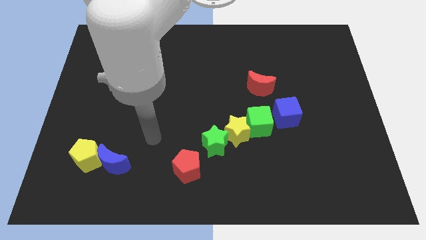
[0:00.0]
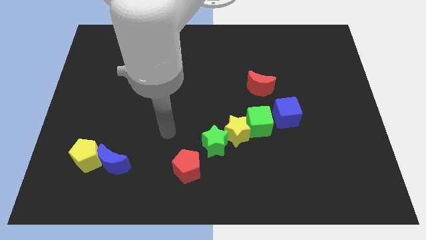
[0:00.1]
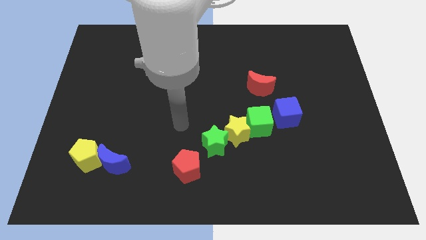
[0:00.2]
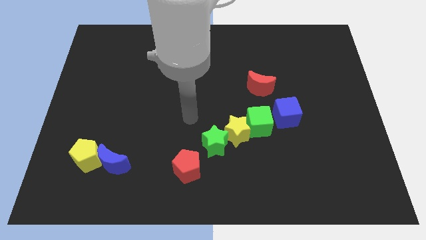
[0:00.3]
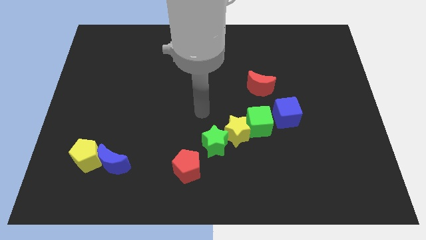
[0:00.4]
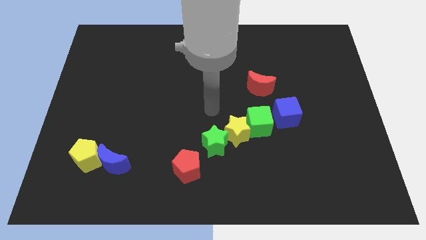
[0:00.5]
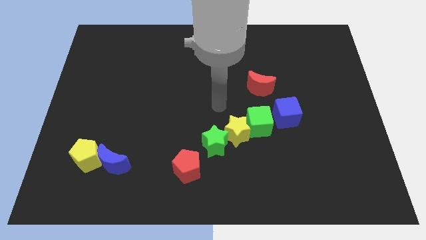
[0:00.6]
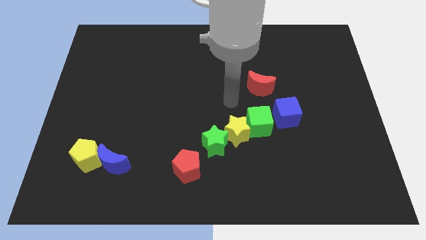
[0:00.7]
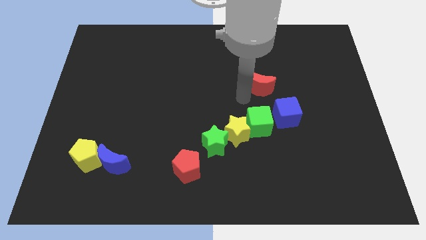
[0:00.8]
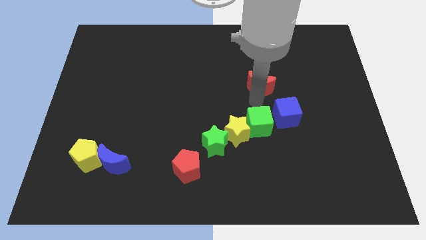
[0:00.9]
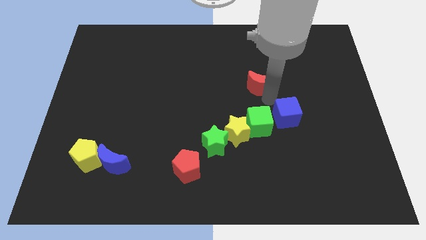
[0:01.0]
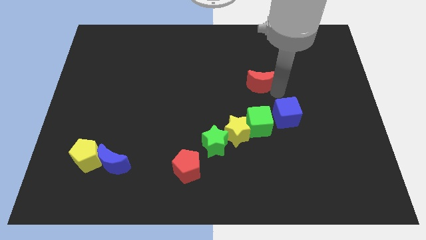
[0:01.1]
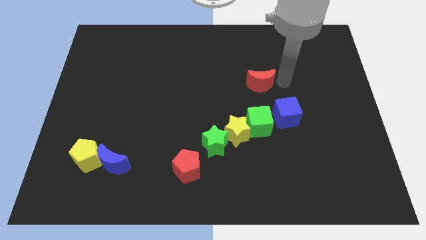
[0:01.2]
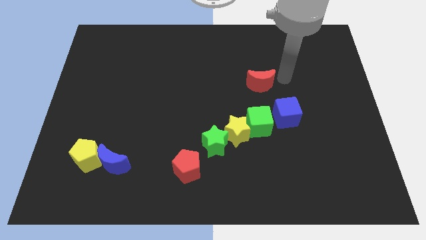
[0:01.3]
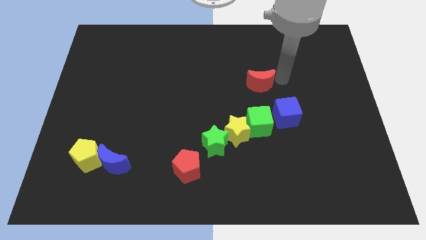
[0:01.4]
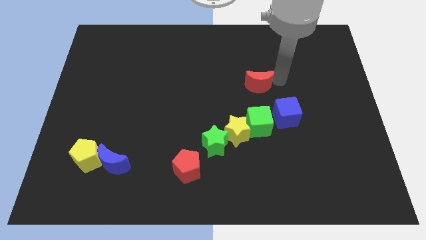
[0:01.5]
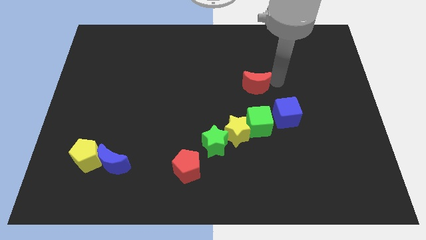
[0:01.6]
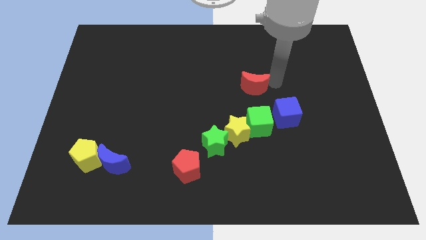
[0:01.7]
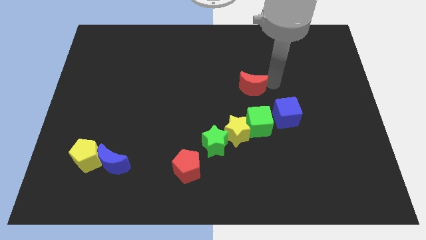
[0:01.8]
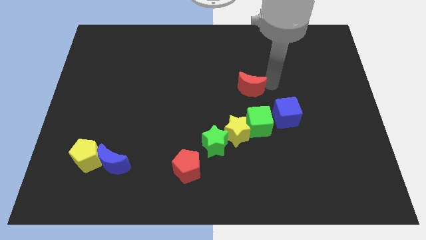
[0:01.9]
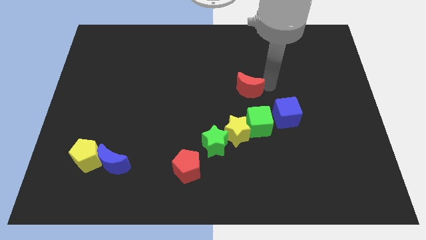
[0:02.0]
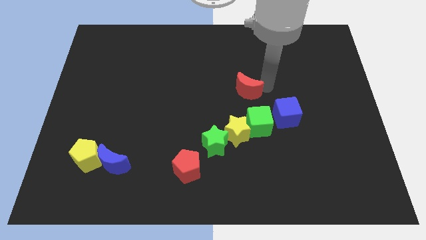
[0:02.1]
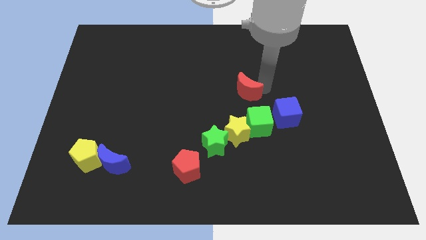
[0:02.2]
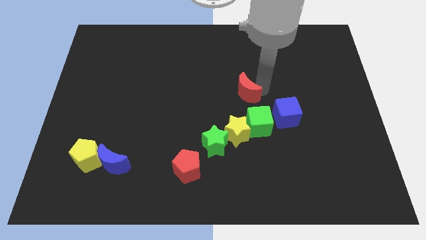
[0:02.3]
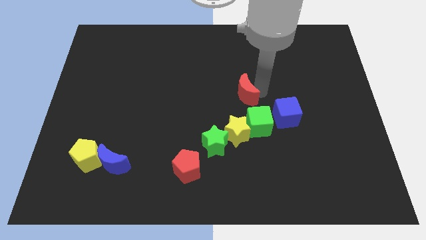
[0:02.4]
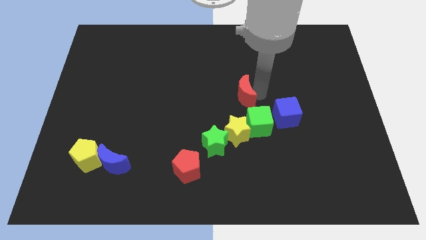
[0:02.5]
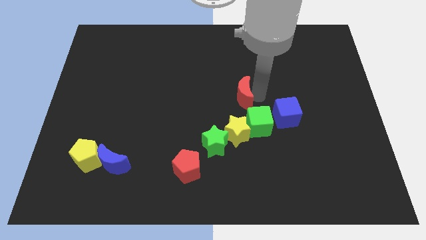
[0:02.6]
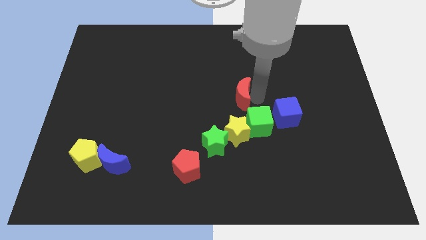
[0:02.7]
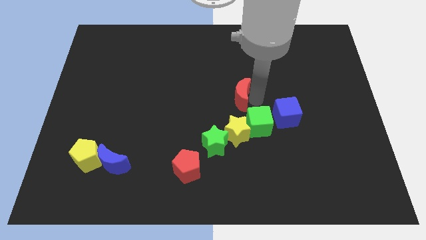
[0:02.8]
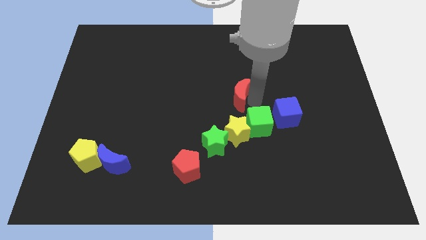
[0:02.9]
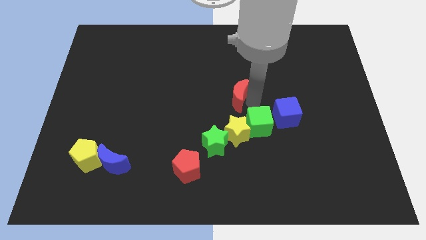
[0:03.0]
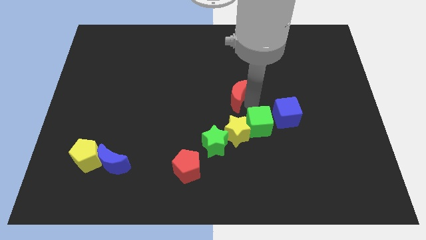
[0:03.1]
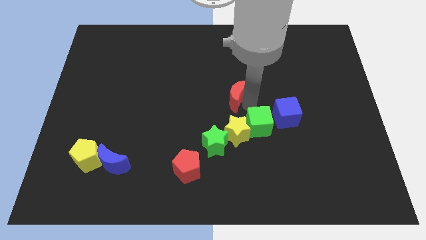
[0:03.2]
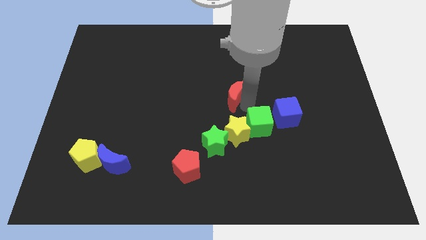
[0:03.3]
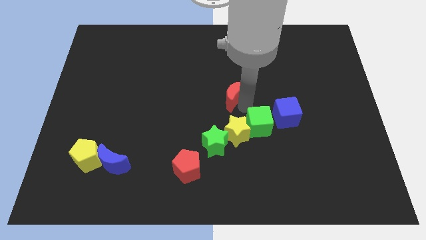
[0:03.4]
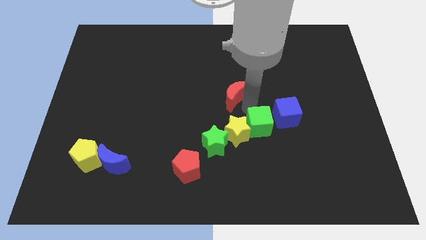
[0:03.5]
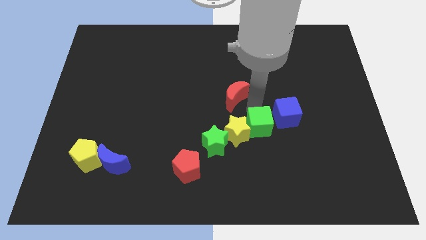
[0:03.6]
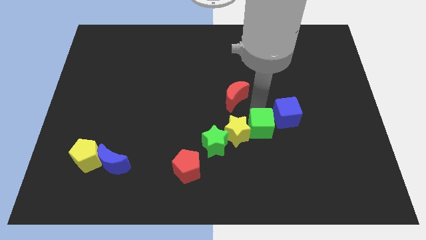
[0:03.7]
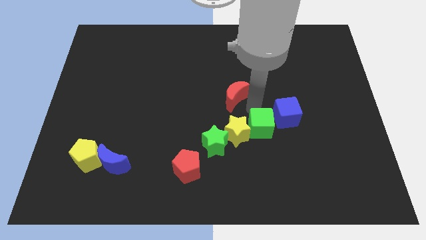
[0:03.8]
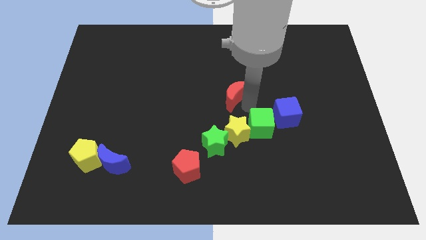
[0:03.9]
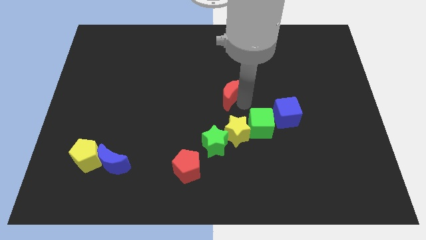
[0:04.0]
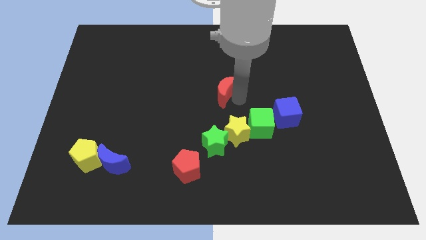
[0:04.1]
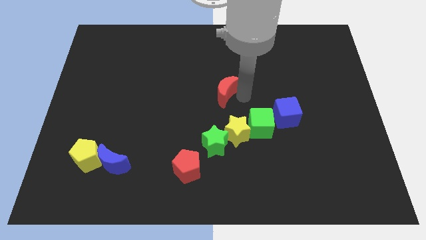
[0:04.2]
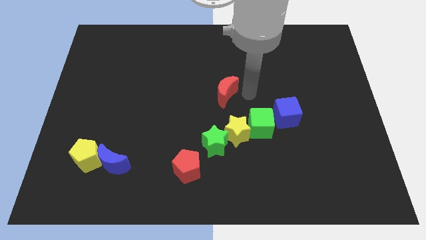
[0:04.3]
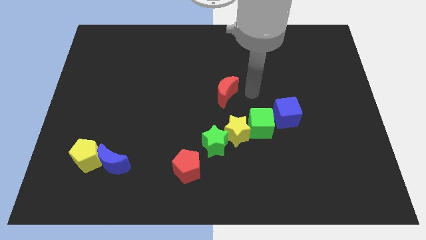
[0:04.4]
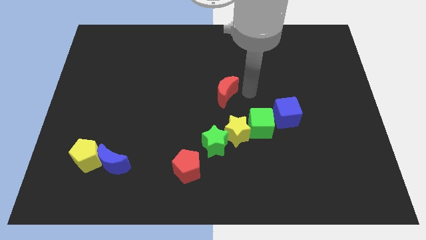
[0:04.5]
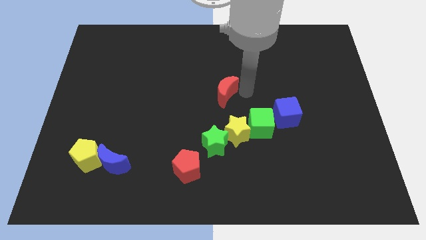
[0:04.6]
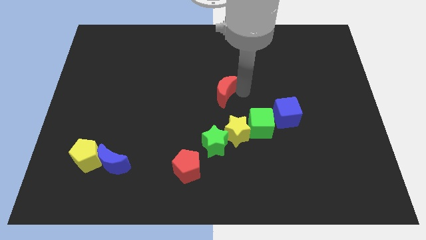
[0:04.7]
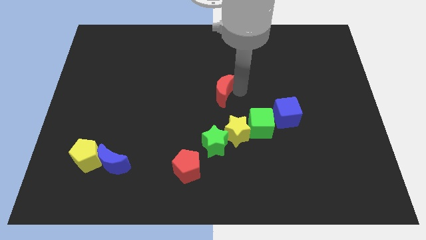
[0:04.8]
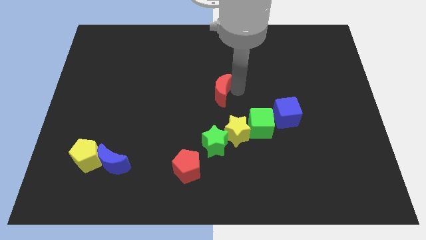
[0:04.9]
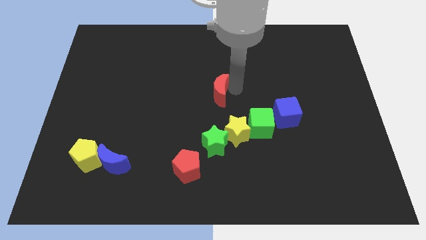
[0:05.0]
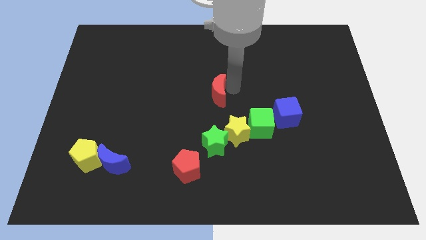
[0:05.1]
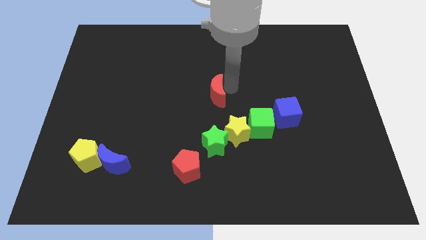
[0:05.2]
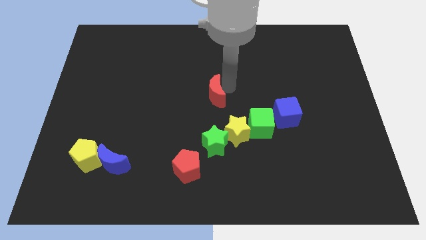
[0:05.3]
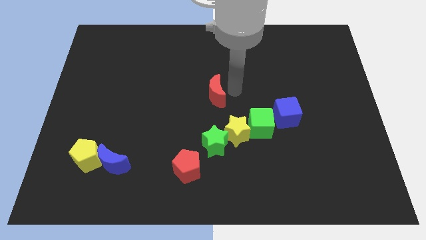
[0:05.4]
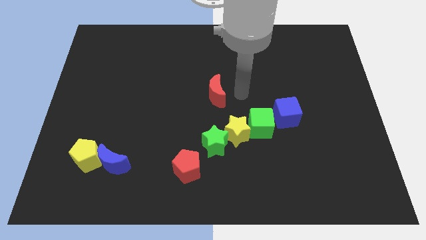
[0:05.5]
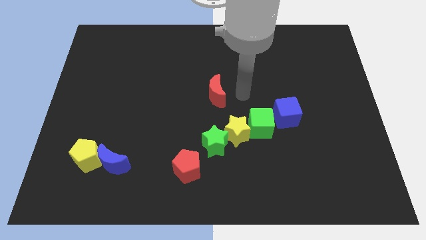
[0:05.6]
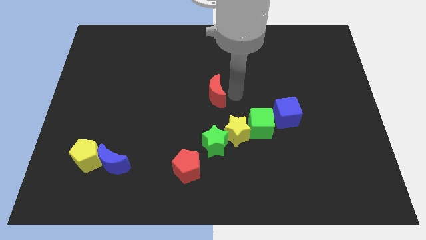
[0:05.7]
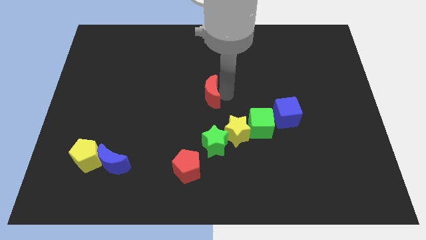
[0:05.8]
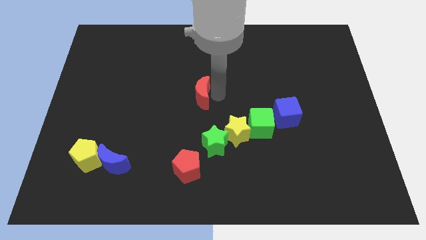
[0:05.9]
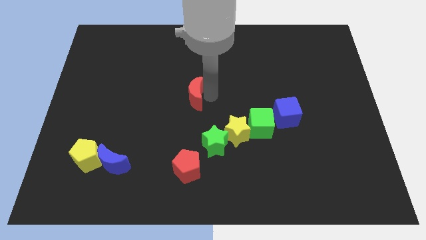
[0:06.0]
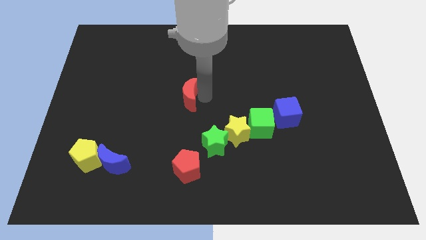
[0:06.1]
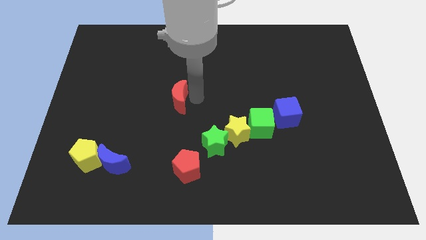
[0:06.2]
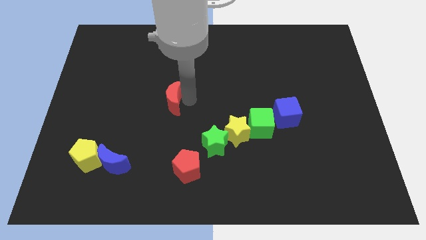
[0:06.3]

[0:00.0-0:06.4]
push the red moon to the left

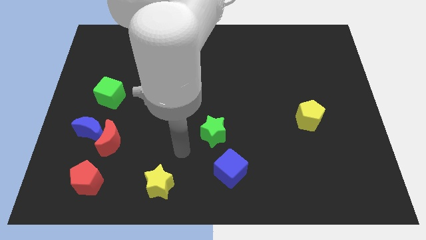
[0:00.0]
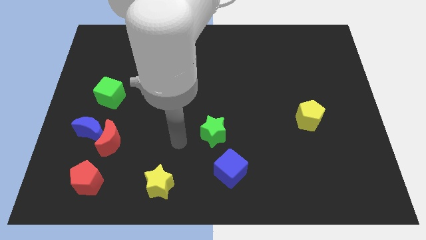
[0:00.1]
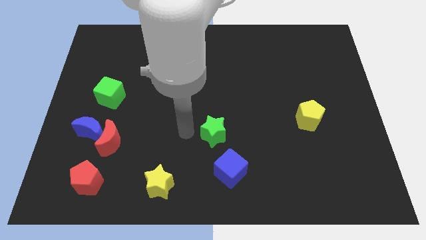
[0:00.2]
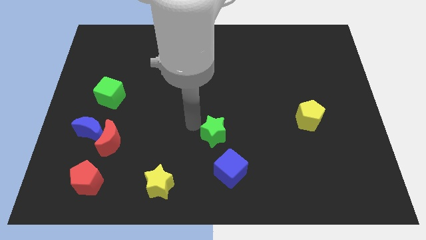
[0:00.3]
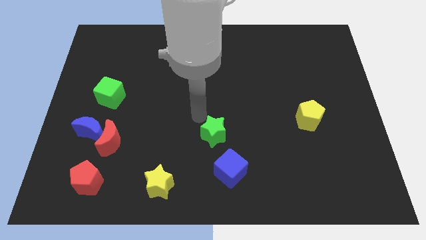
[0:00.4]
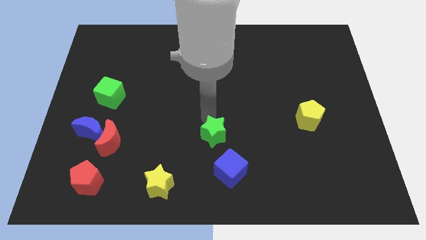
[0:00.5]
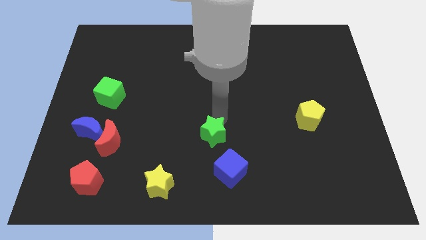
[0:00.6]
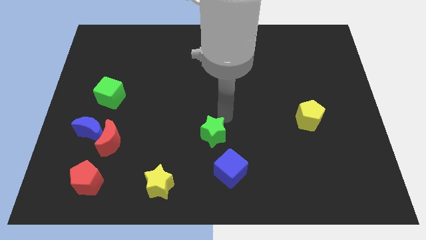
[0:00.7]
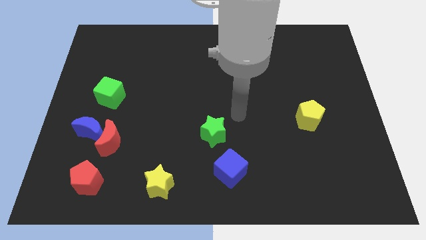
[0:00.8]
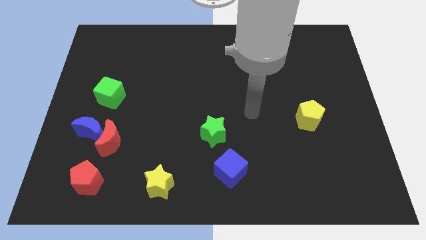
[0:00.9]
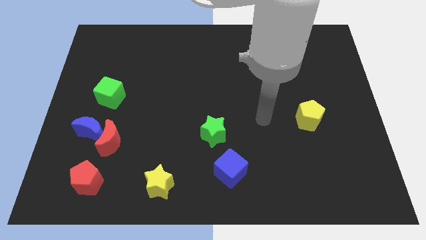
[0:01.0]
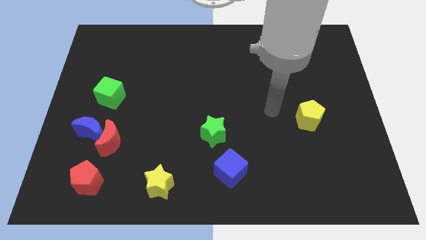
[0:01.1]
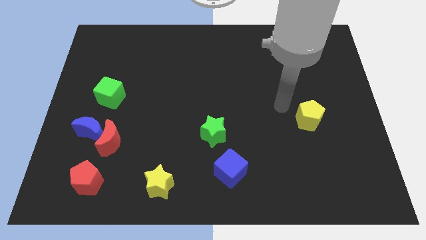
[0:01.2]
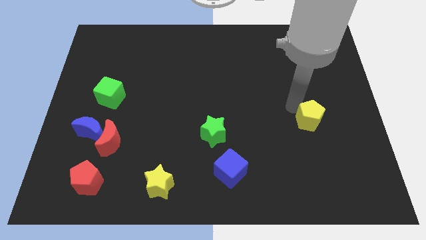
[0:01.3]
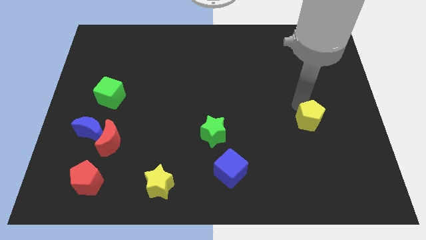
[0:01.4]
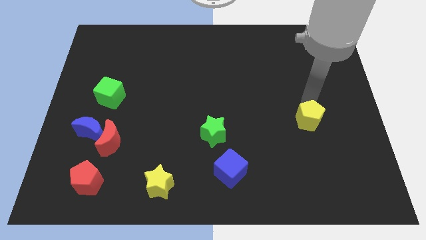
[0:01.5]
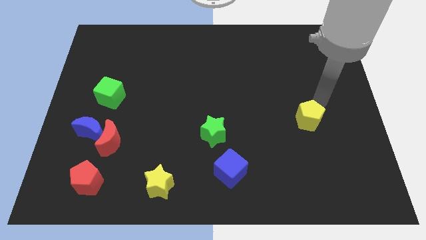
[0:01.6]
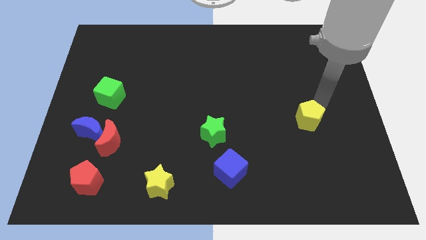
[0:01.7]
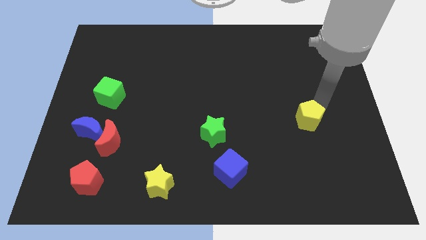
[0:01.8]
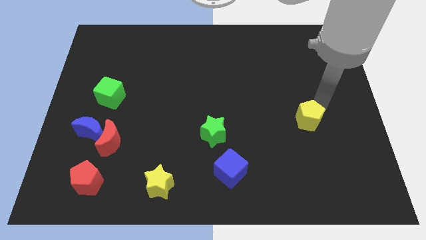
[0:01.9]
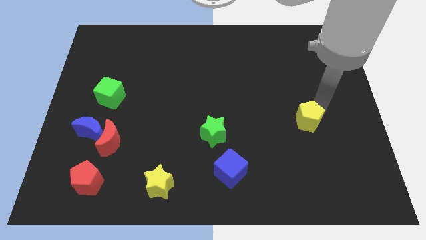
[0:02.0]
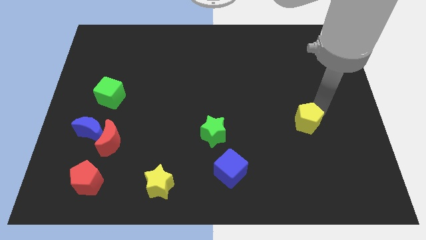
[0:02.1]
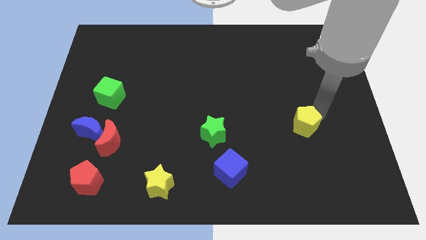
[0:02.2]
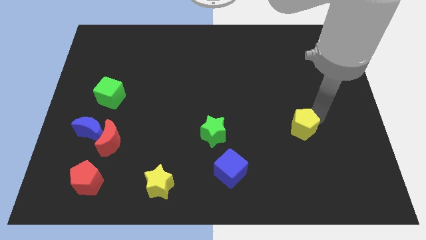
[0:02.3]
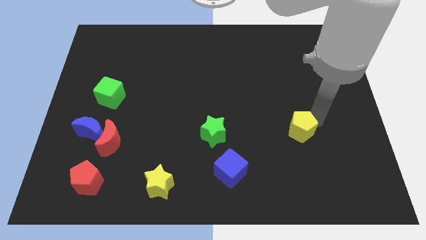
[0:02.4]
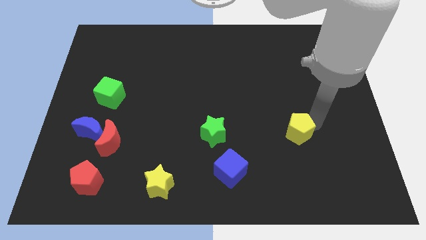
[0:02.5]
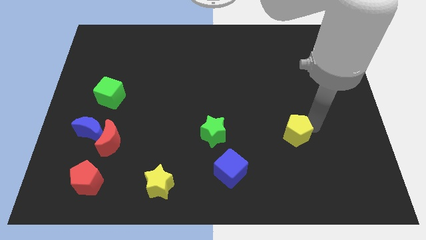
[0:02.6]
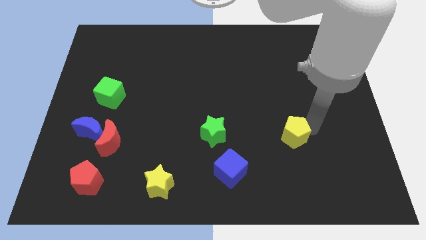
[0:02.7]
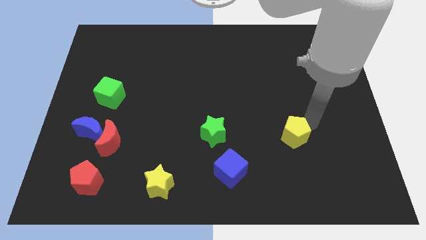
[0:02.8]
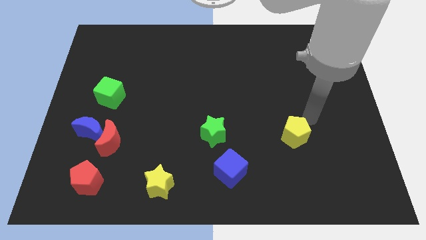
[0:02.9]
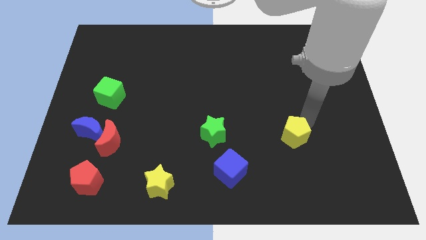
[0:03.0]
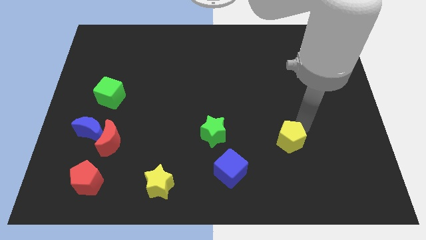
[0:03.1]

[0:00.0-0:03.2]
move the yellow pentagon a bit down and left diagonally
